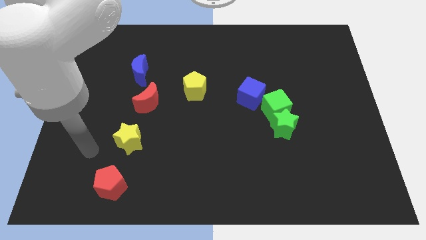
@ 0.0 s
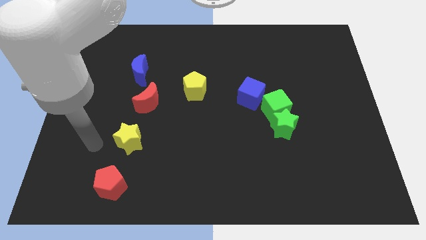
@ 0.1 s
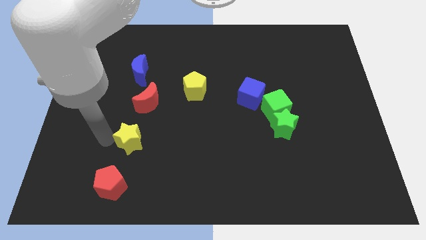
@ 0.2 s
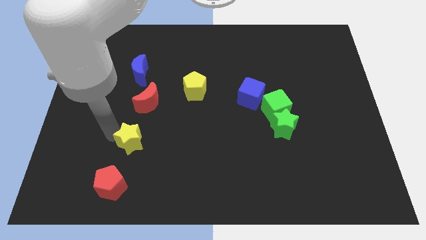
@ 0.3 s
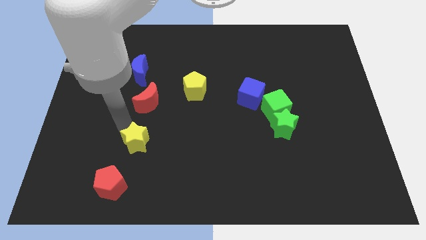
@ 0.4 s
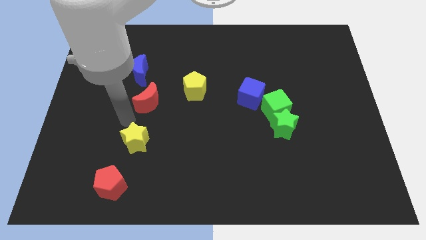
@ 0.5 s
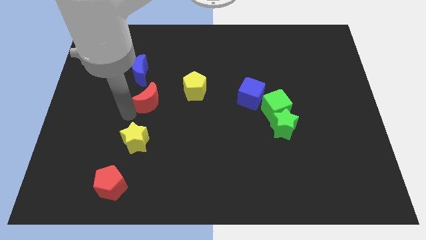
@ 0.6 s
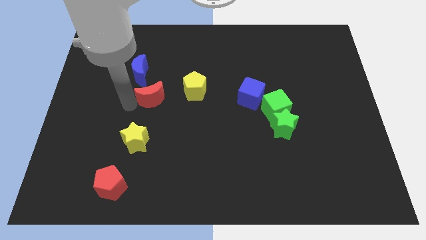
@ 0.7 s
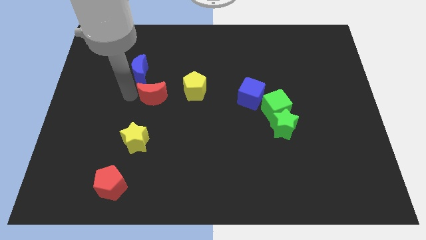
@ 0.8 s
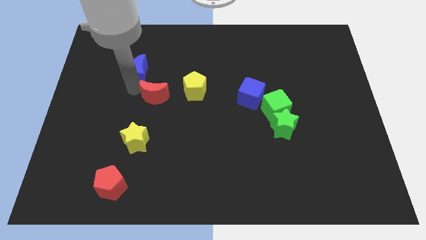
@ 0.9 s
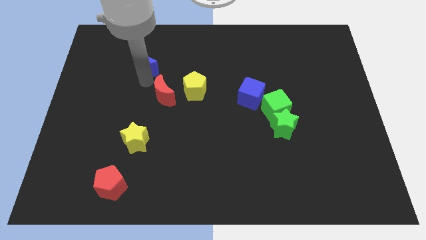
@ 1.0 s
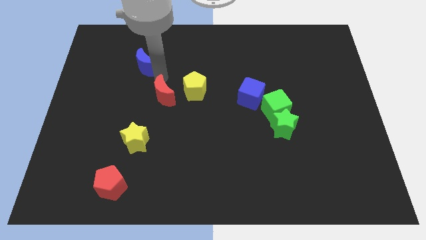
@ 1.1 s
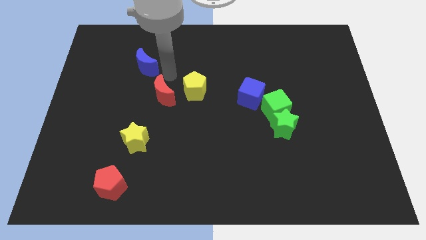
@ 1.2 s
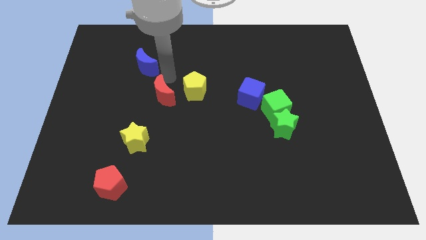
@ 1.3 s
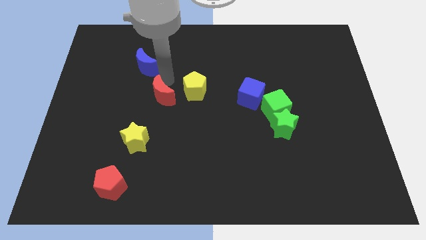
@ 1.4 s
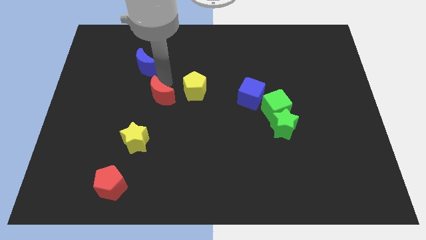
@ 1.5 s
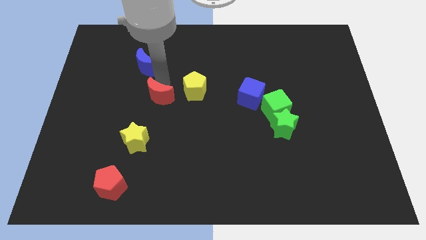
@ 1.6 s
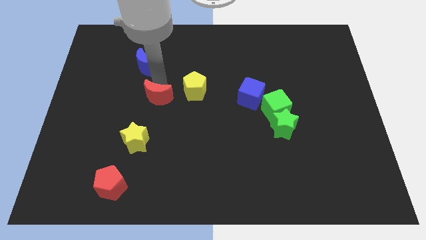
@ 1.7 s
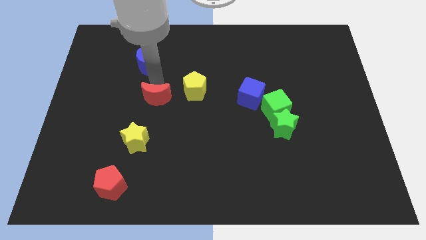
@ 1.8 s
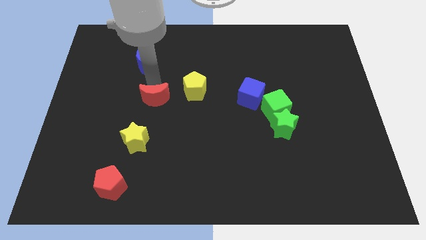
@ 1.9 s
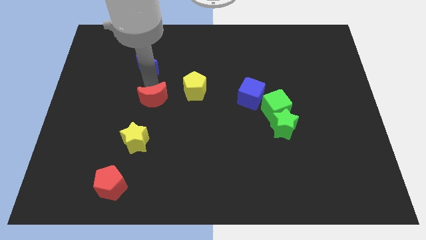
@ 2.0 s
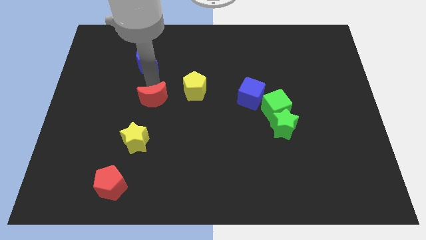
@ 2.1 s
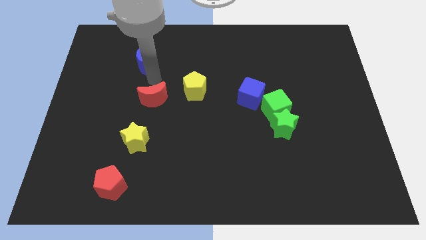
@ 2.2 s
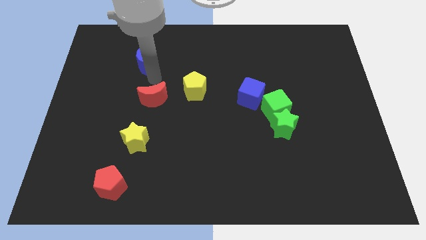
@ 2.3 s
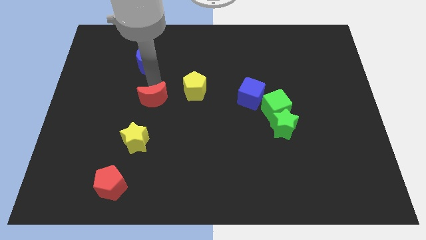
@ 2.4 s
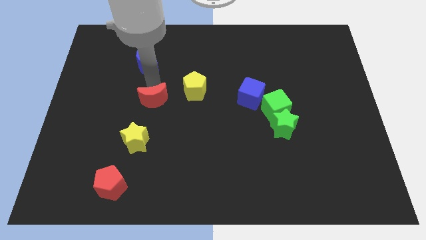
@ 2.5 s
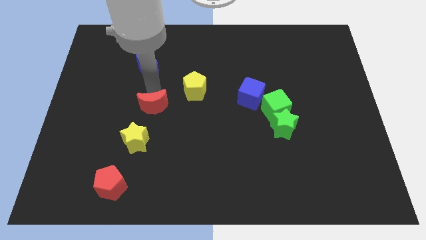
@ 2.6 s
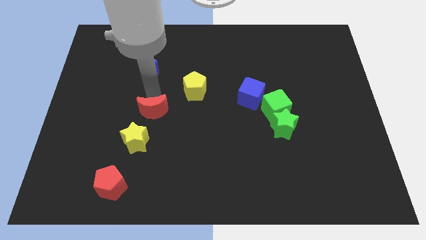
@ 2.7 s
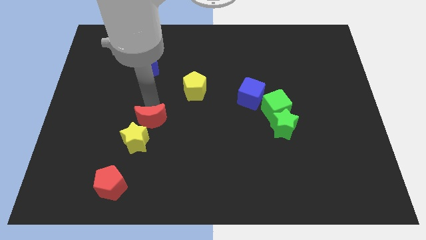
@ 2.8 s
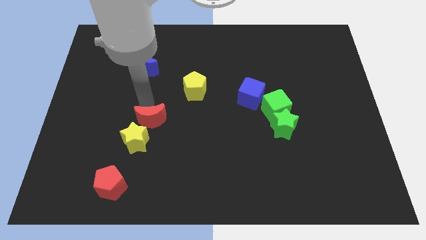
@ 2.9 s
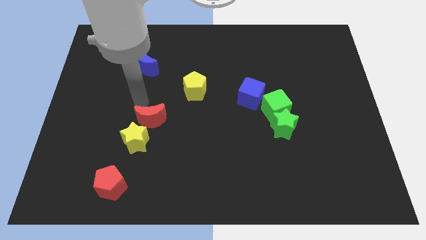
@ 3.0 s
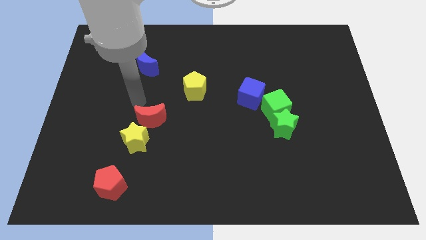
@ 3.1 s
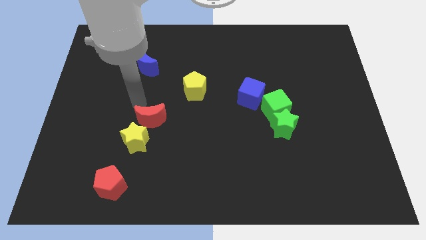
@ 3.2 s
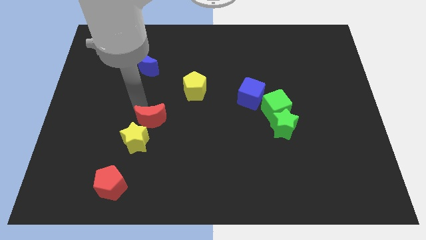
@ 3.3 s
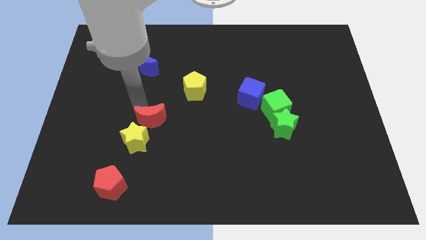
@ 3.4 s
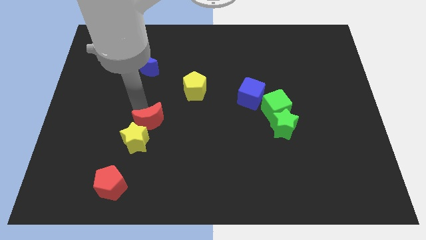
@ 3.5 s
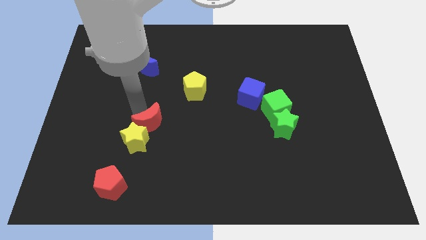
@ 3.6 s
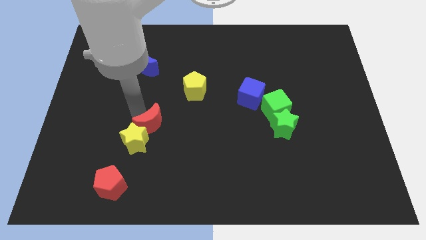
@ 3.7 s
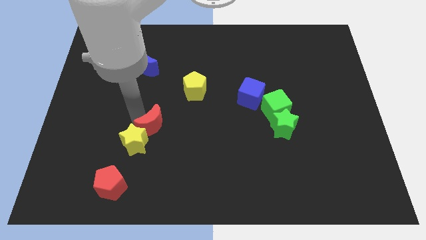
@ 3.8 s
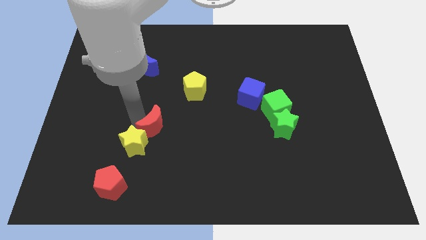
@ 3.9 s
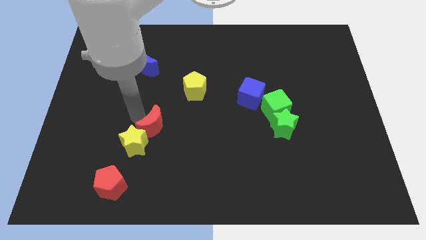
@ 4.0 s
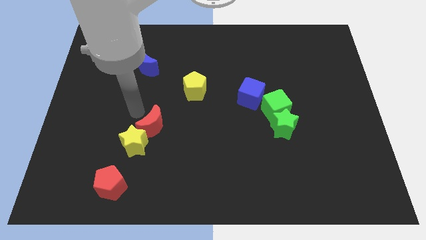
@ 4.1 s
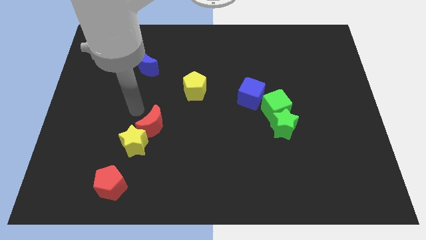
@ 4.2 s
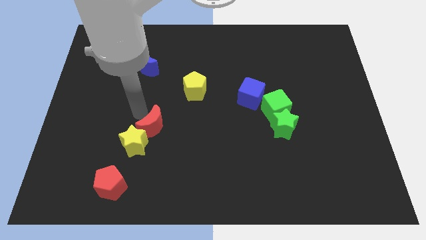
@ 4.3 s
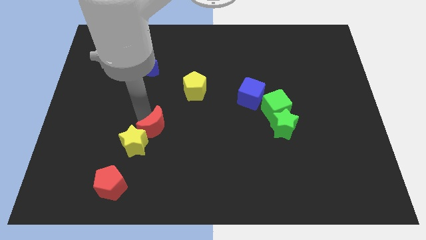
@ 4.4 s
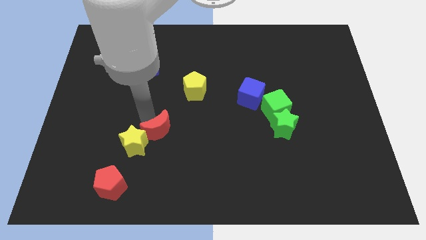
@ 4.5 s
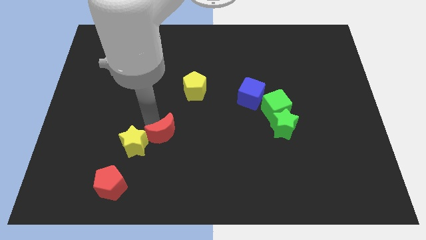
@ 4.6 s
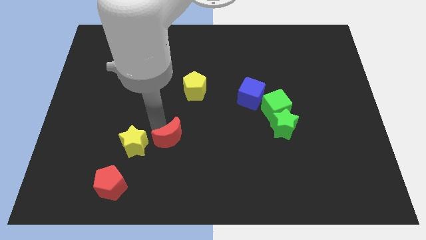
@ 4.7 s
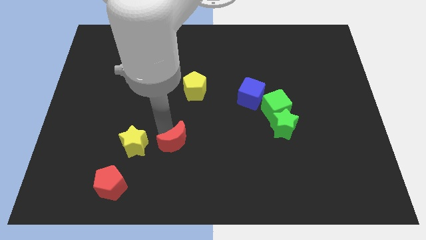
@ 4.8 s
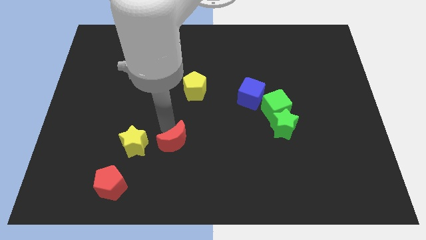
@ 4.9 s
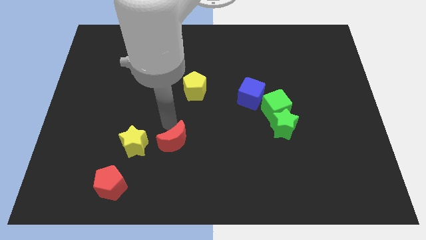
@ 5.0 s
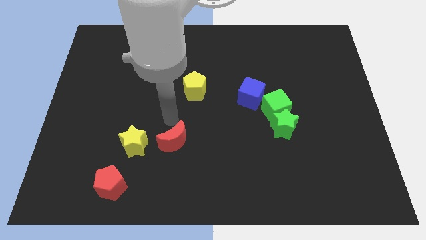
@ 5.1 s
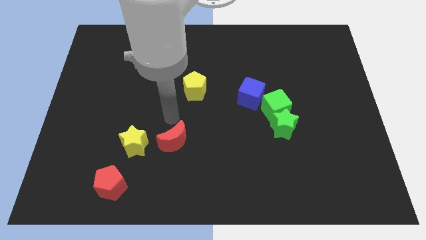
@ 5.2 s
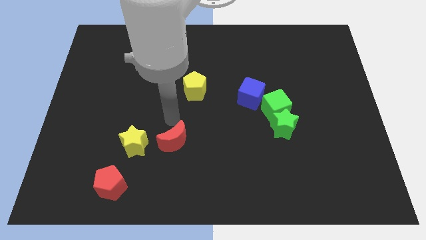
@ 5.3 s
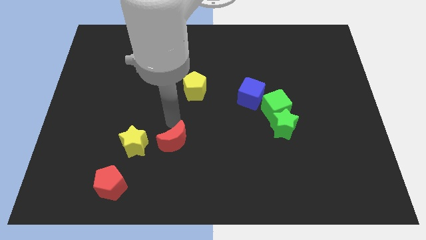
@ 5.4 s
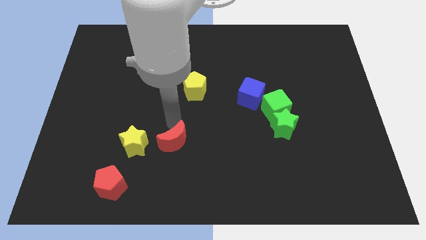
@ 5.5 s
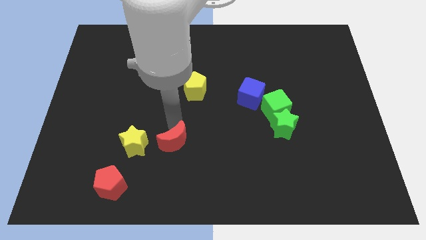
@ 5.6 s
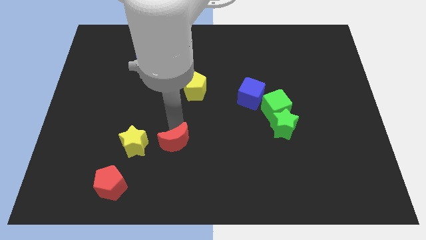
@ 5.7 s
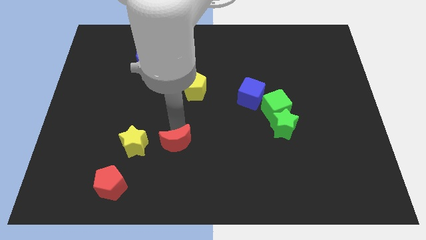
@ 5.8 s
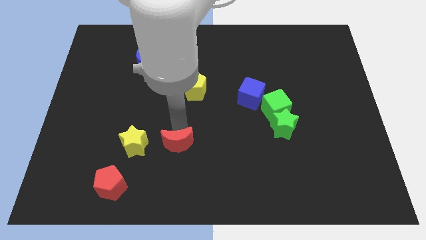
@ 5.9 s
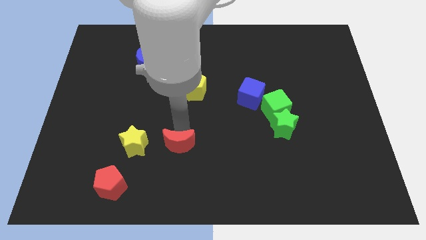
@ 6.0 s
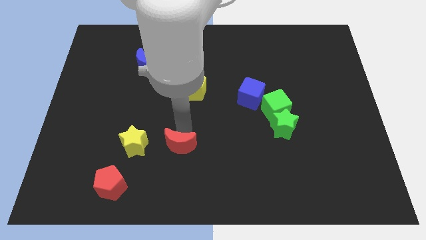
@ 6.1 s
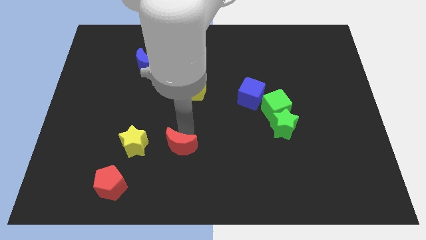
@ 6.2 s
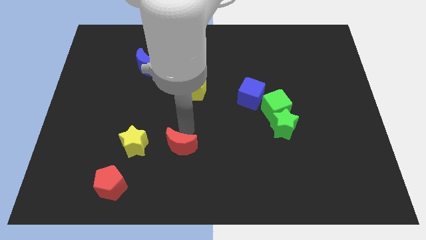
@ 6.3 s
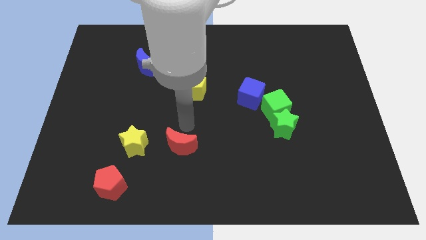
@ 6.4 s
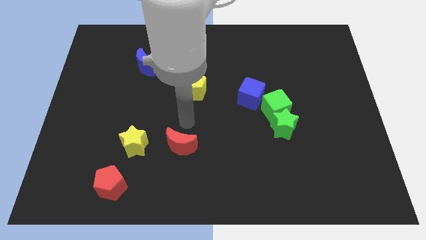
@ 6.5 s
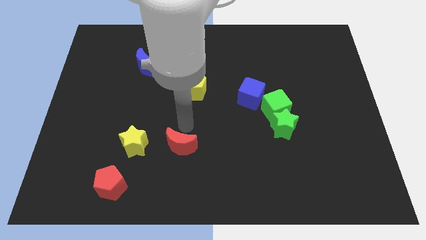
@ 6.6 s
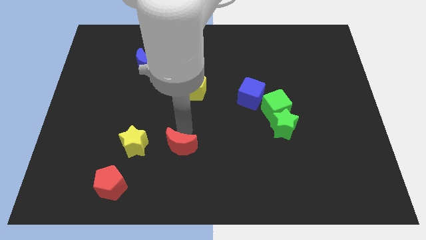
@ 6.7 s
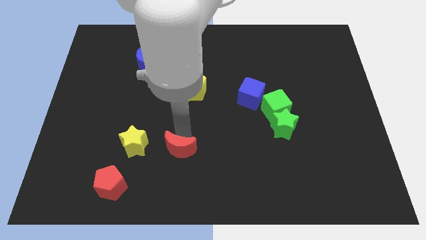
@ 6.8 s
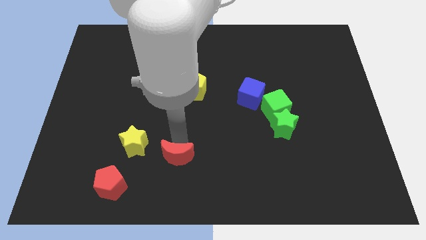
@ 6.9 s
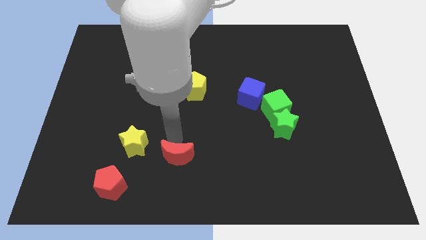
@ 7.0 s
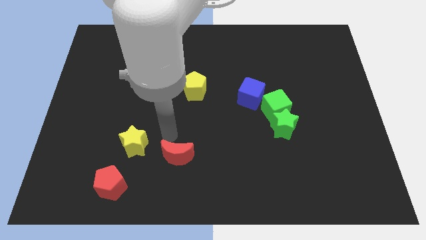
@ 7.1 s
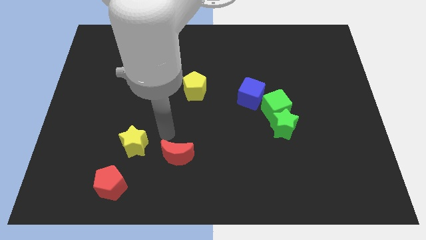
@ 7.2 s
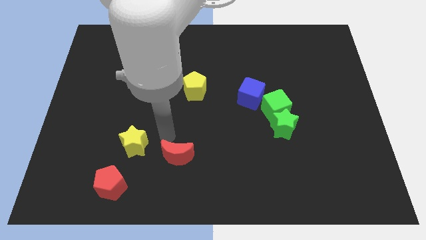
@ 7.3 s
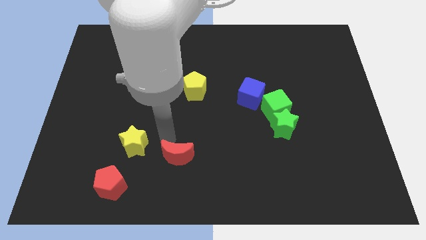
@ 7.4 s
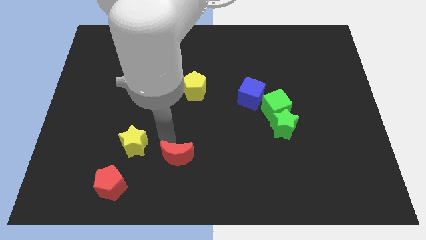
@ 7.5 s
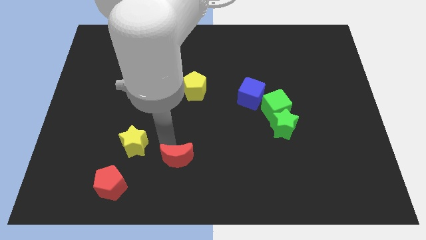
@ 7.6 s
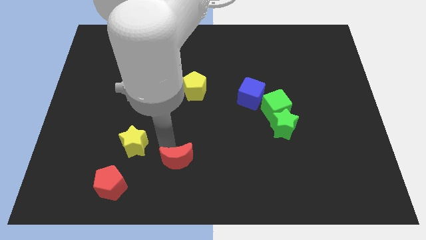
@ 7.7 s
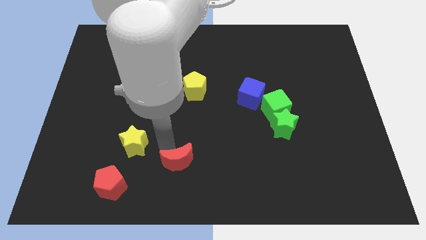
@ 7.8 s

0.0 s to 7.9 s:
put the red moon to the bottom
